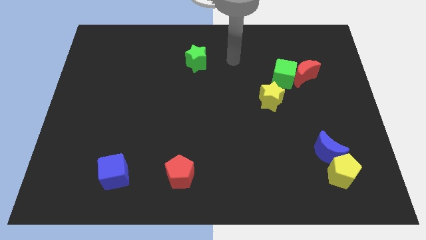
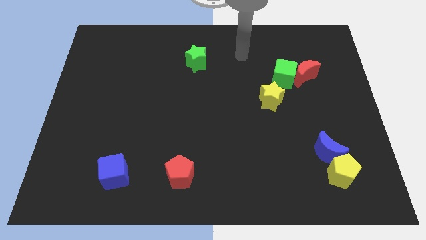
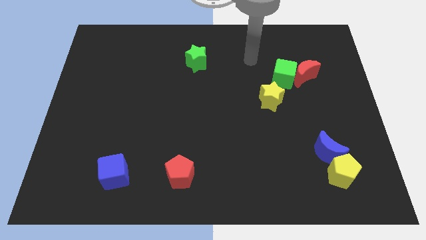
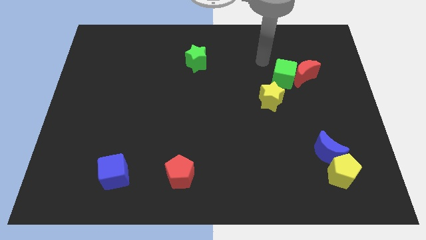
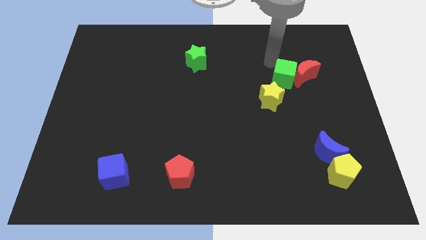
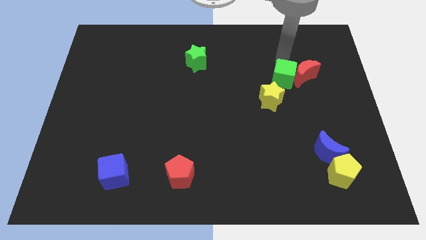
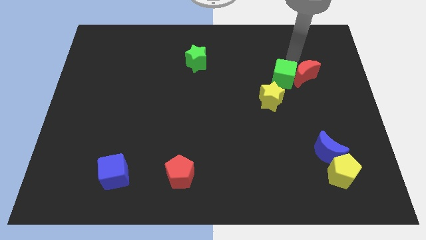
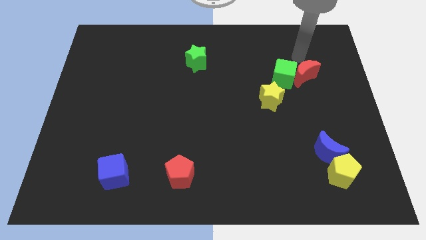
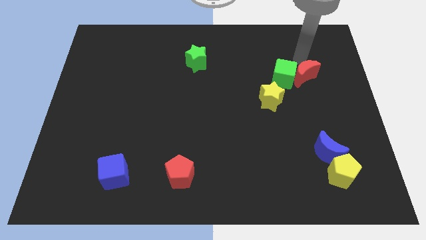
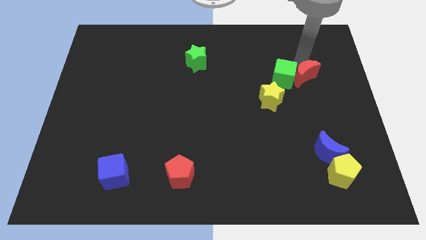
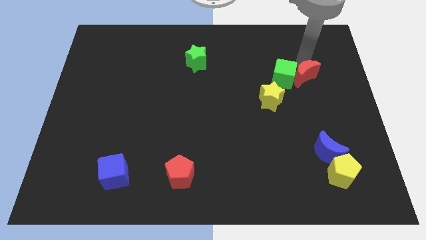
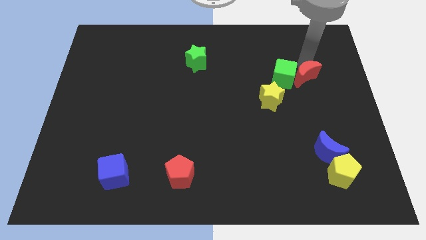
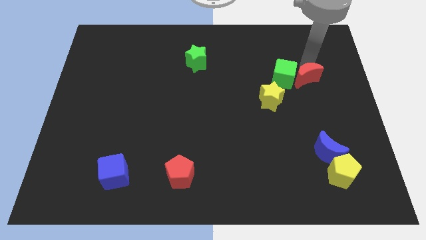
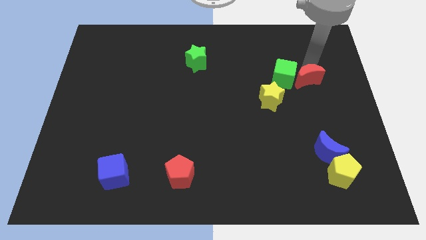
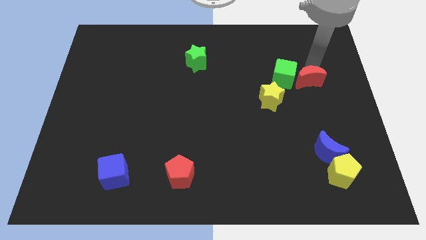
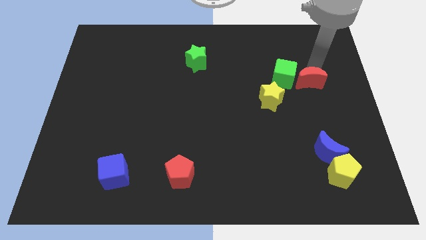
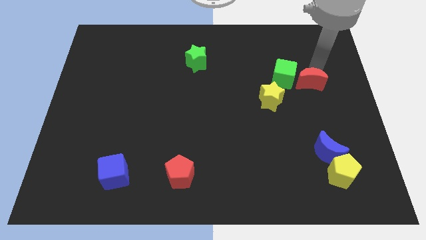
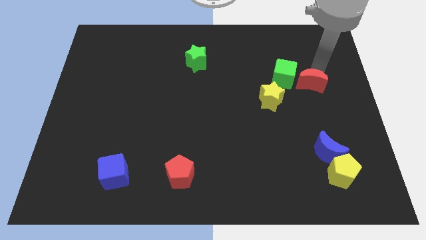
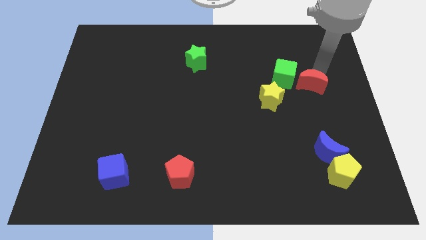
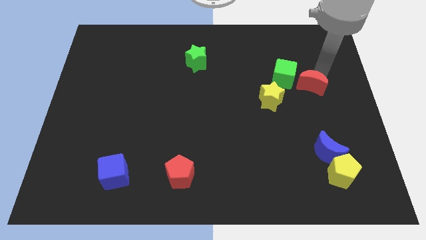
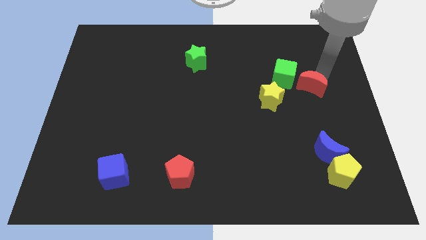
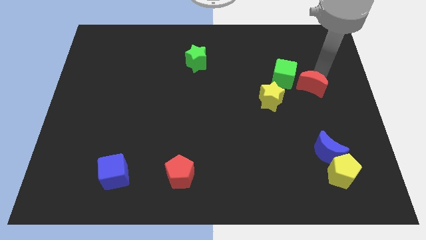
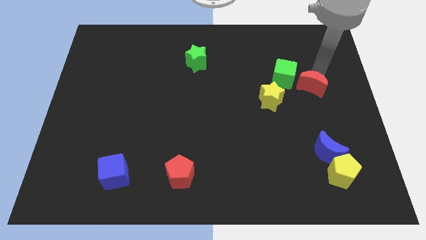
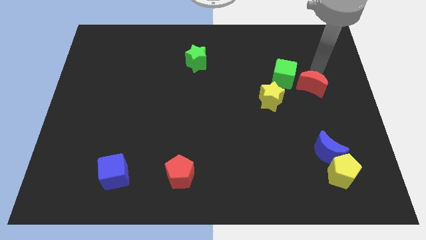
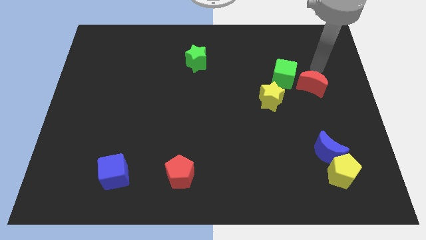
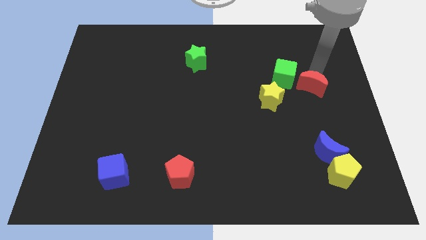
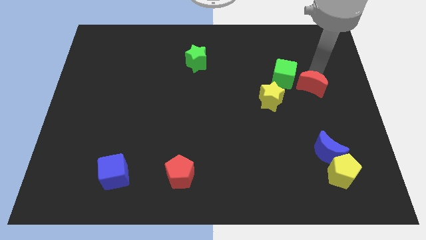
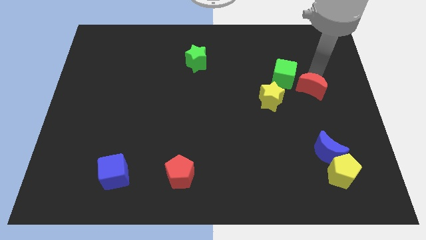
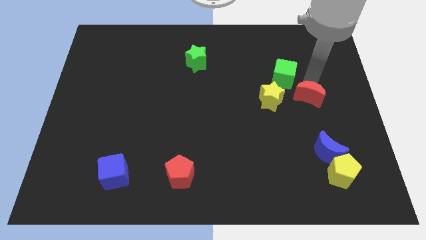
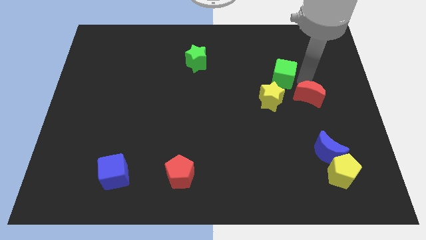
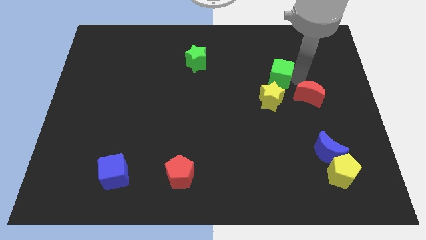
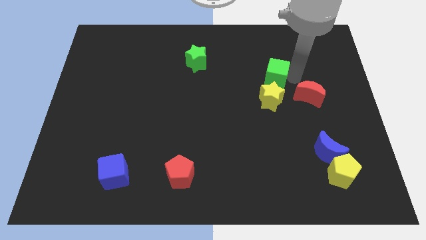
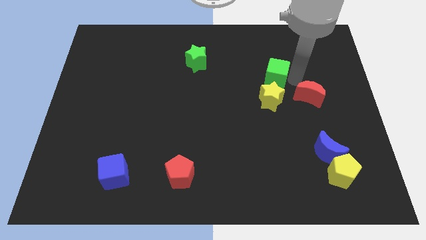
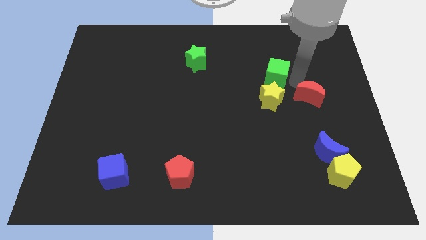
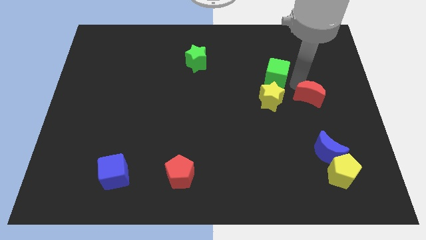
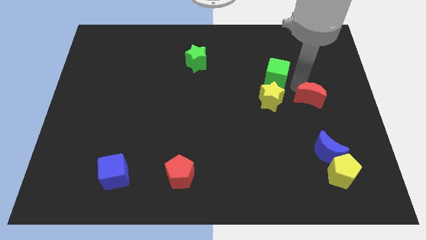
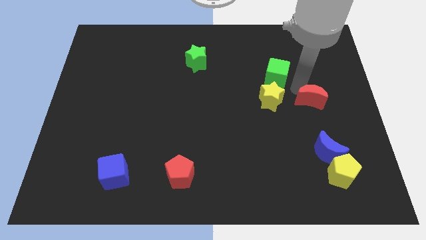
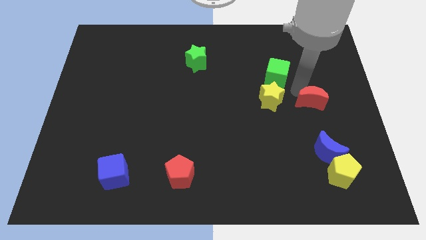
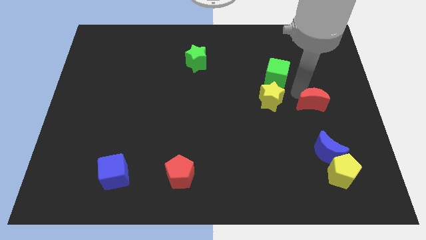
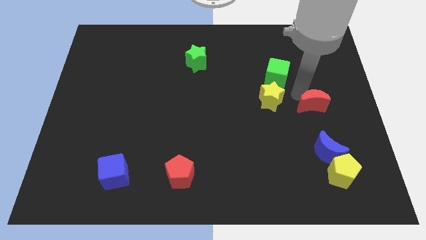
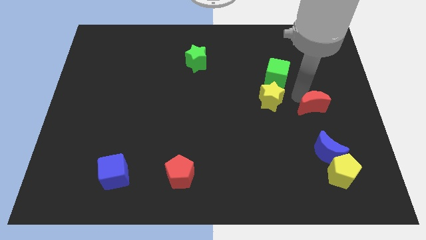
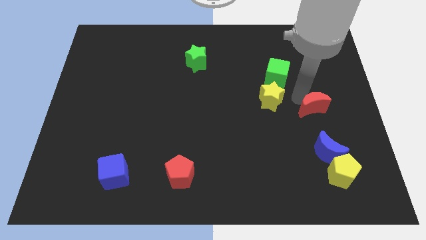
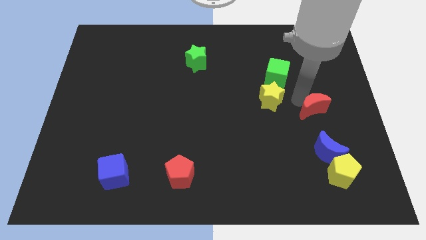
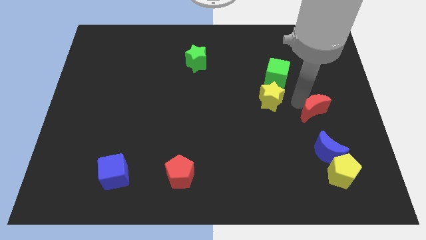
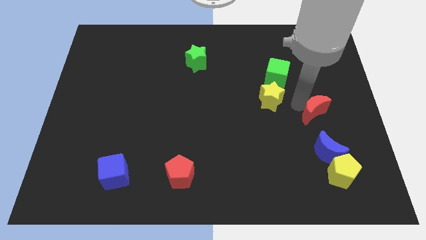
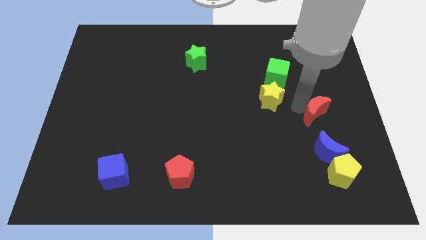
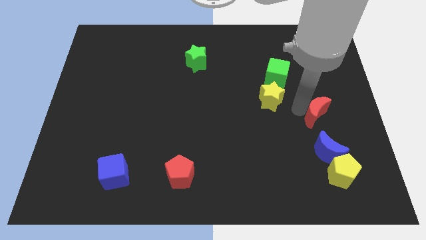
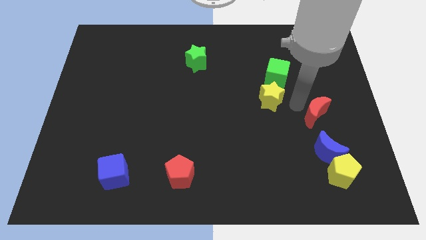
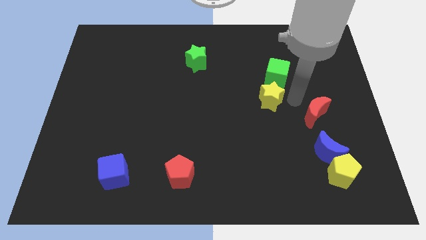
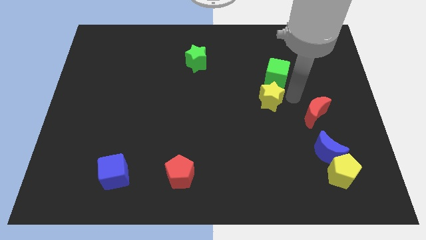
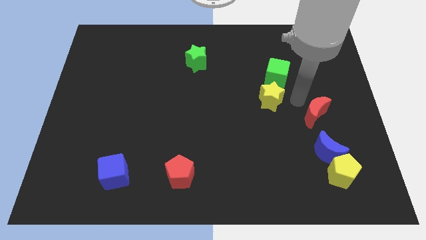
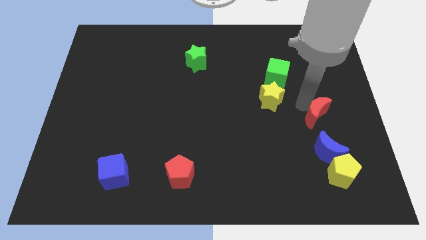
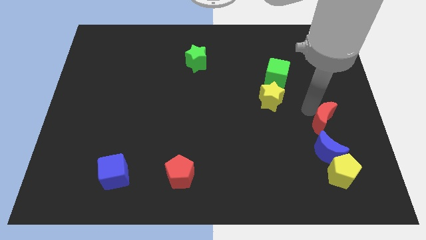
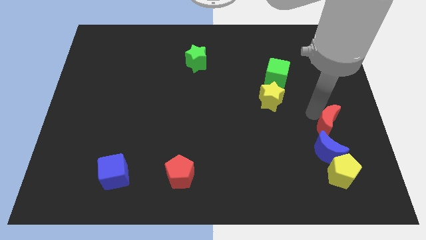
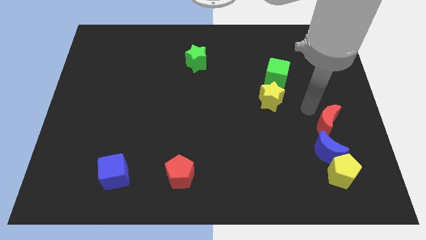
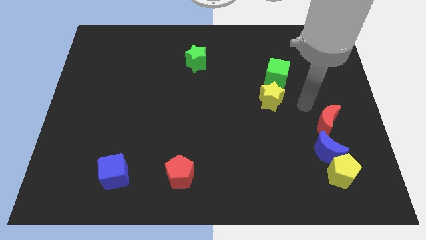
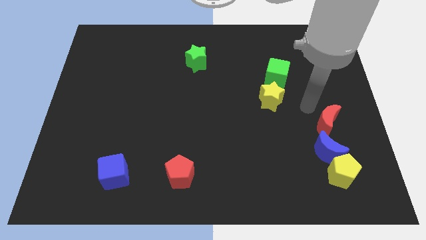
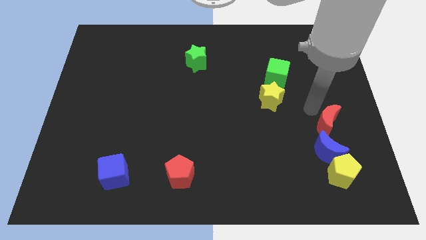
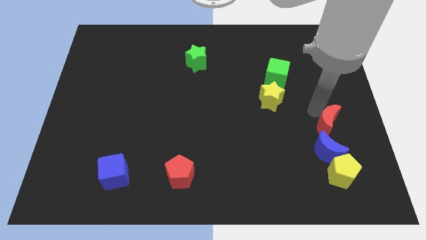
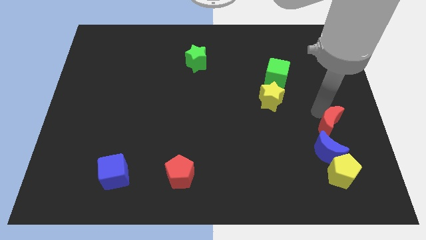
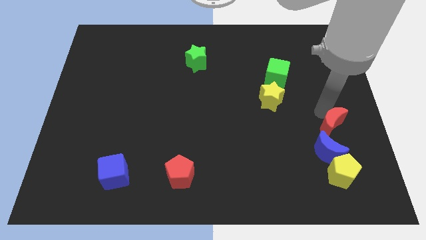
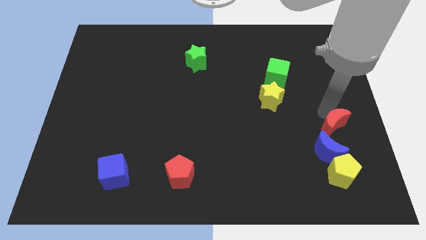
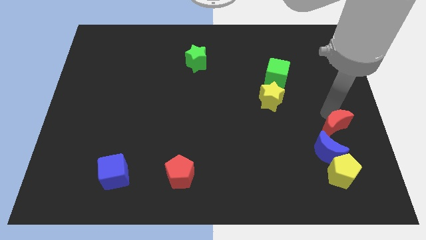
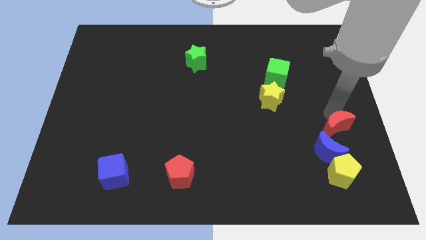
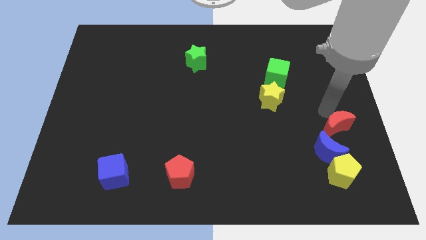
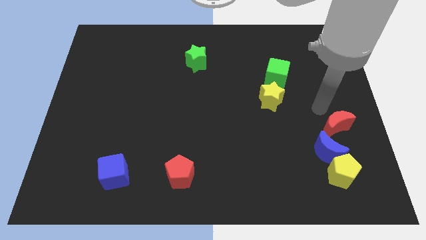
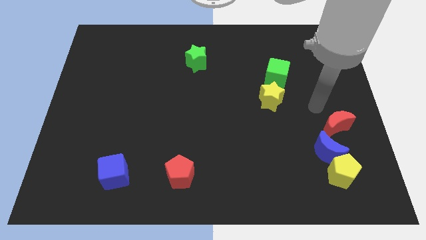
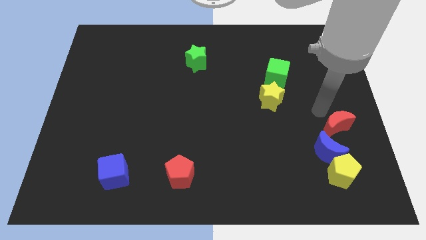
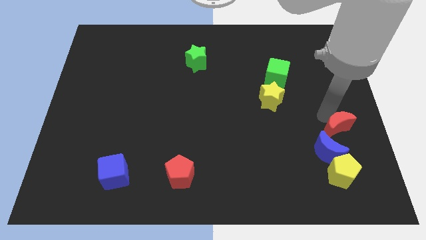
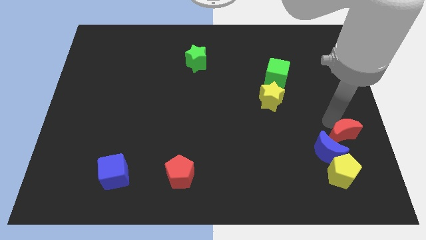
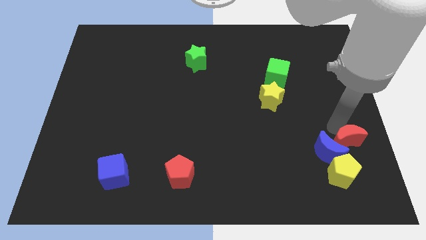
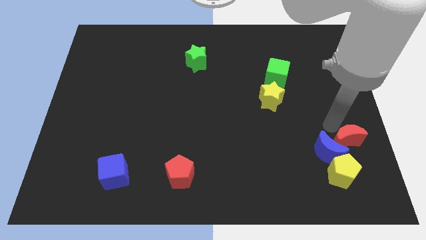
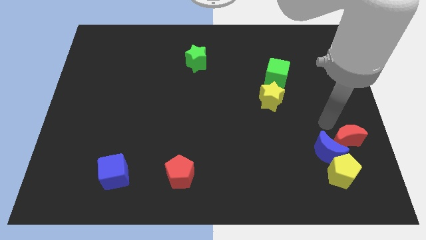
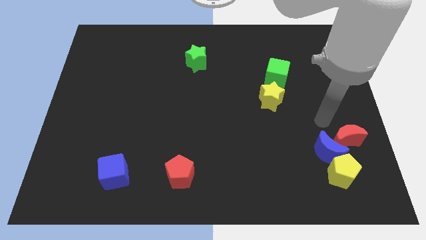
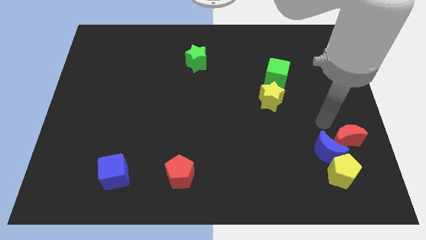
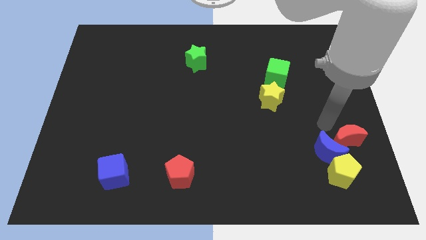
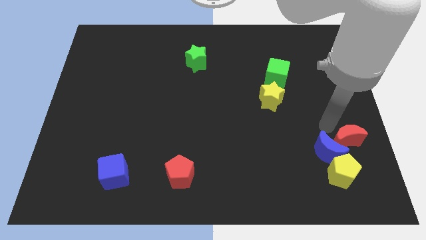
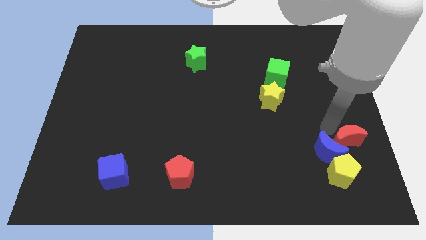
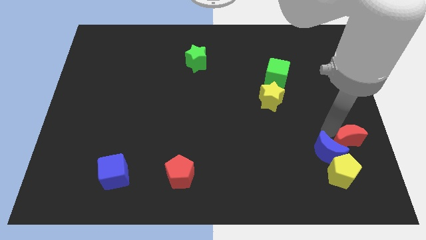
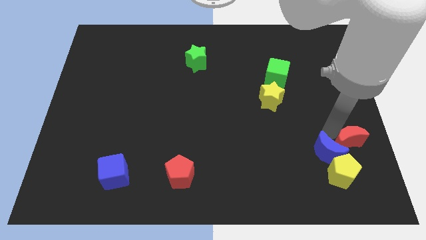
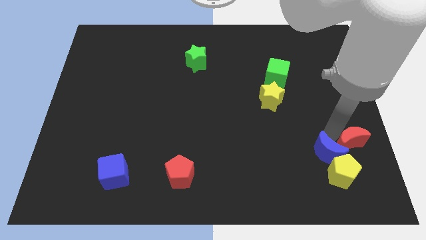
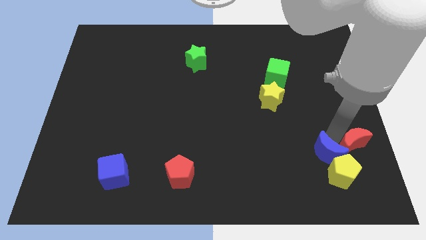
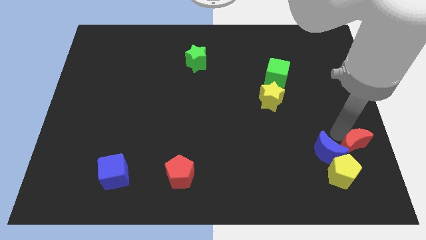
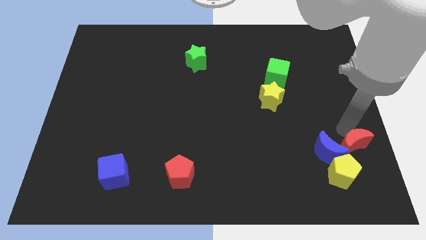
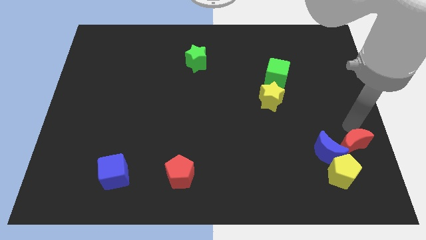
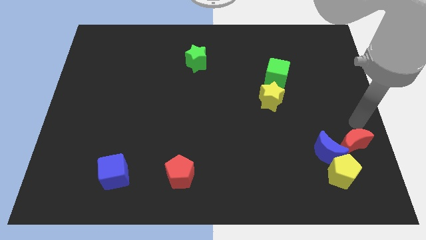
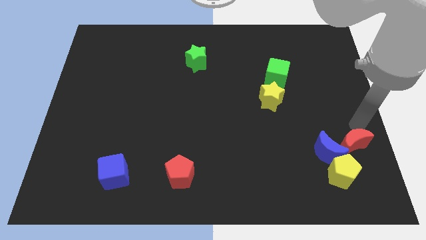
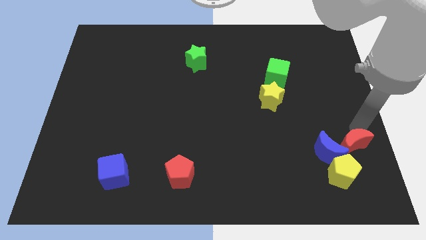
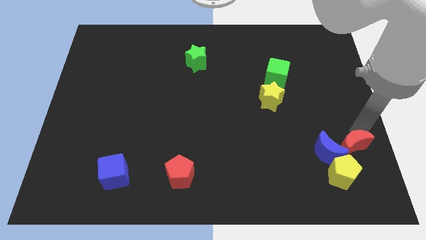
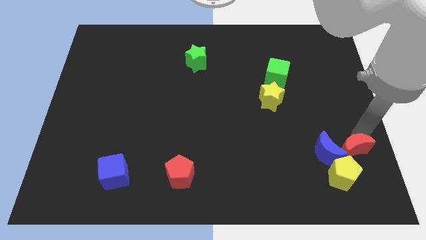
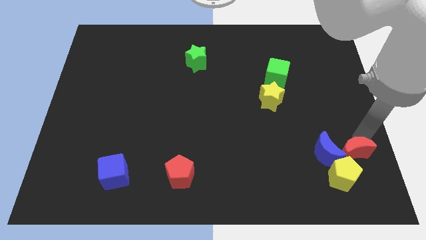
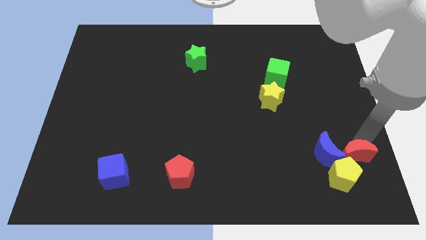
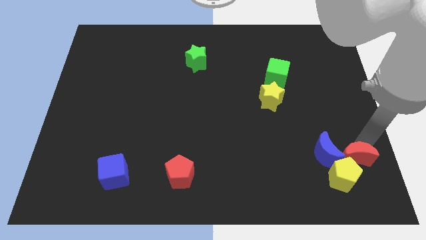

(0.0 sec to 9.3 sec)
push the red moon close to the yellow pentagon
